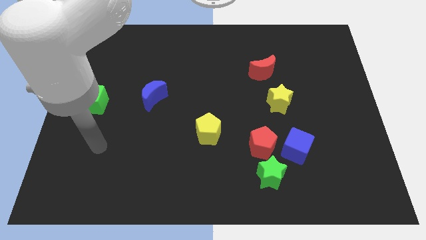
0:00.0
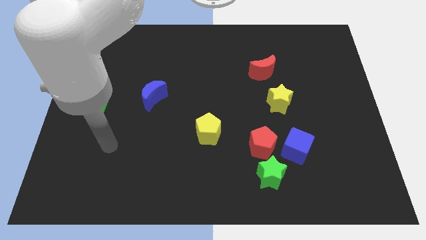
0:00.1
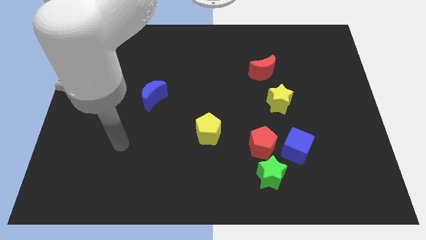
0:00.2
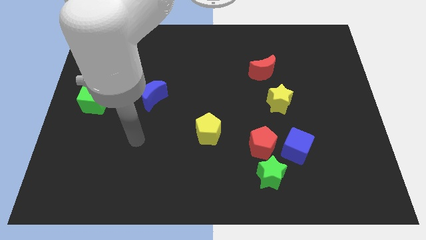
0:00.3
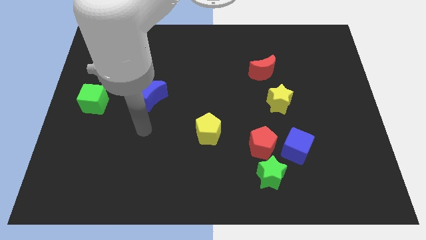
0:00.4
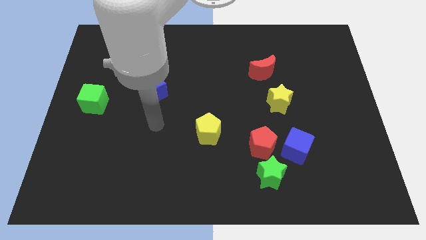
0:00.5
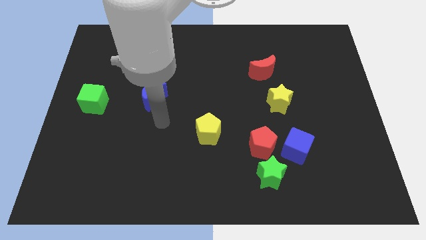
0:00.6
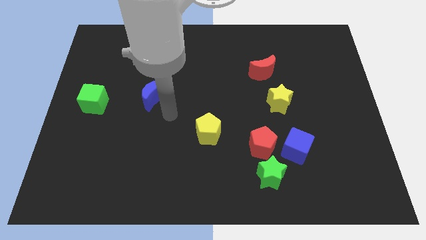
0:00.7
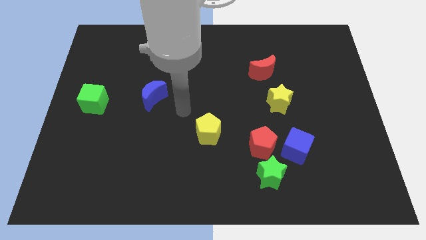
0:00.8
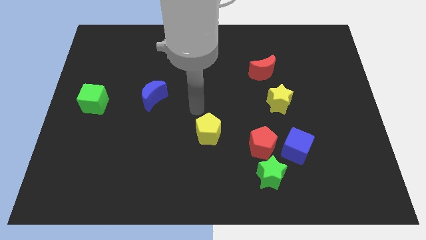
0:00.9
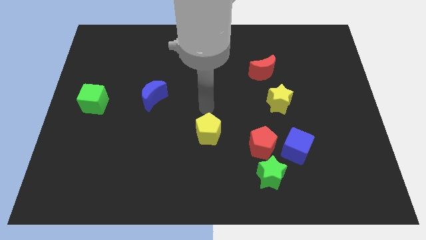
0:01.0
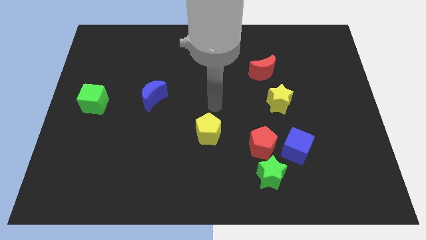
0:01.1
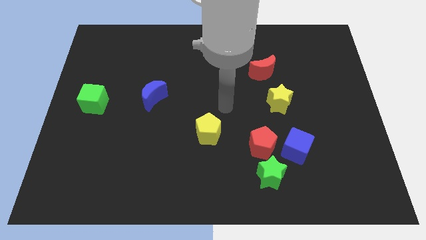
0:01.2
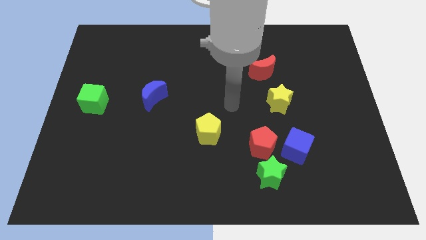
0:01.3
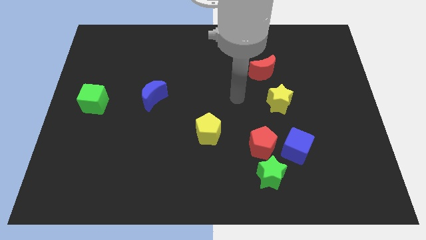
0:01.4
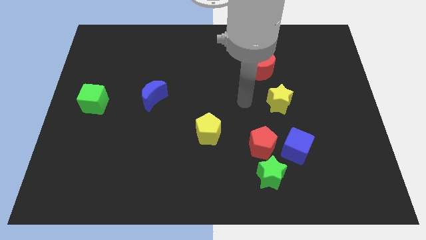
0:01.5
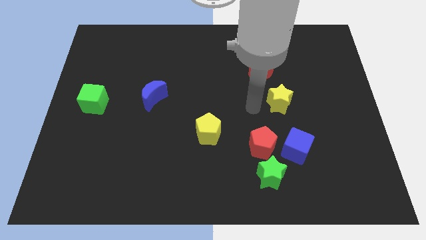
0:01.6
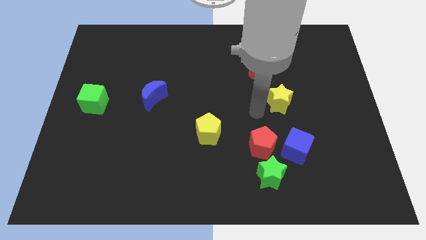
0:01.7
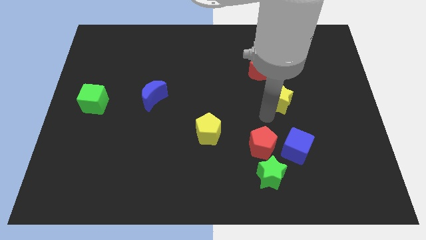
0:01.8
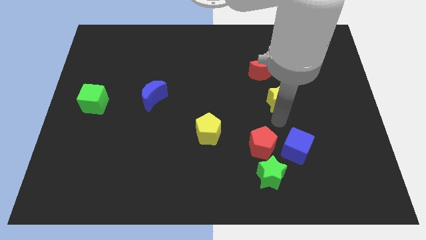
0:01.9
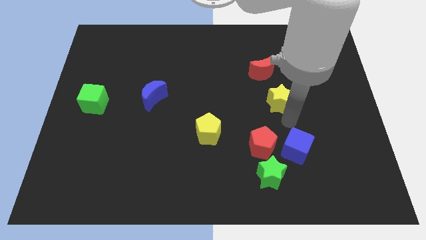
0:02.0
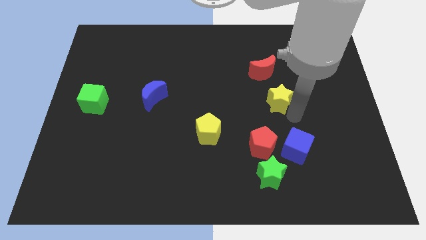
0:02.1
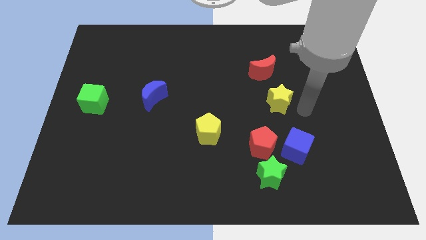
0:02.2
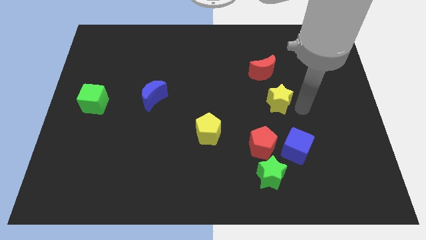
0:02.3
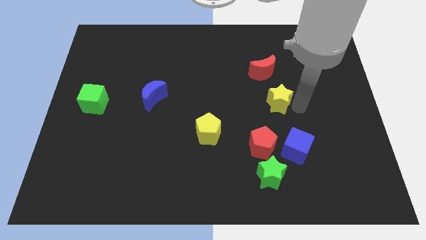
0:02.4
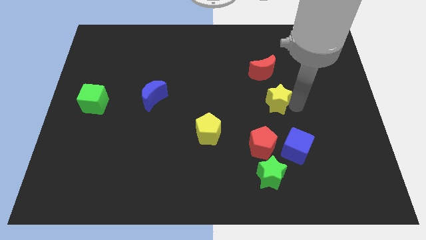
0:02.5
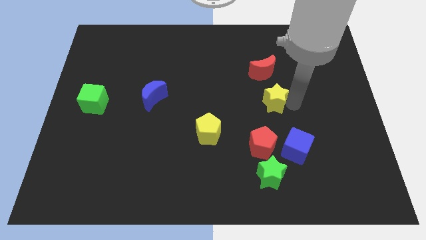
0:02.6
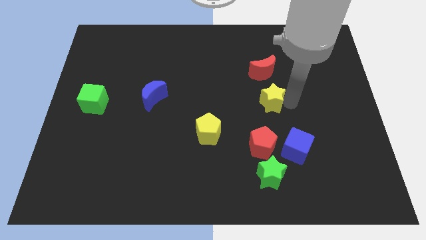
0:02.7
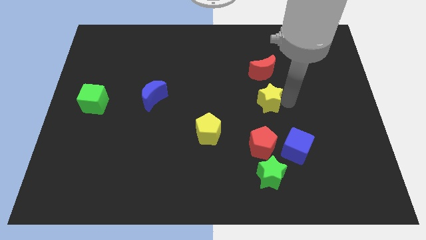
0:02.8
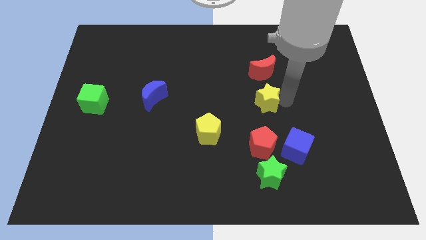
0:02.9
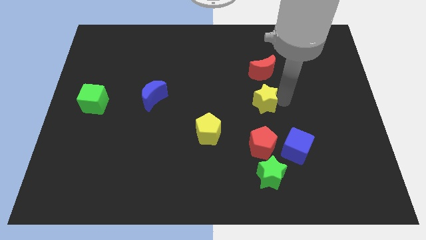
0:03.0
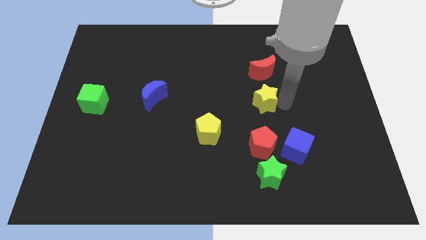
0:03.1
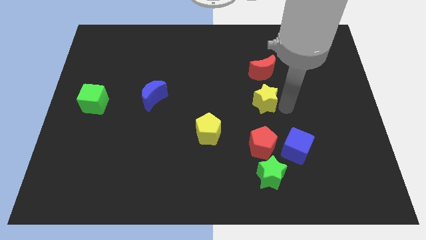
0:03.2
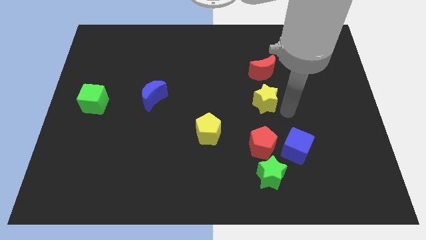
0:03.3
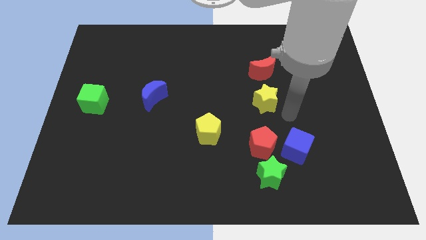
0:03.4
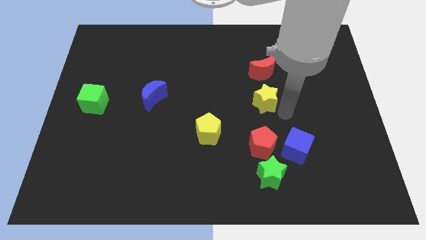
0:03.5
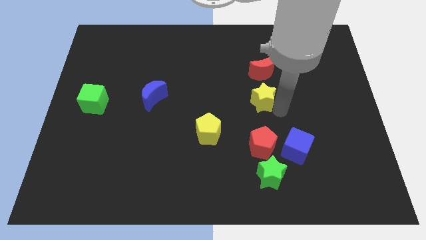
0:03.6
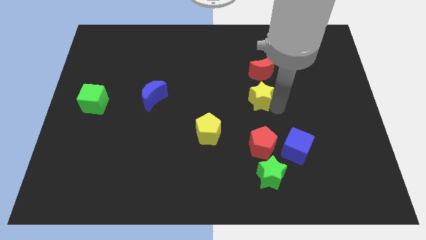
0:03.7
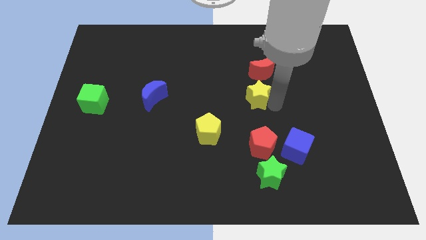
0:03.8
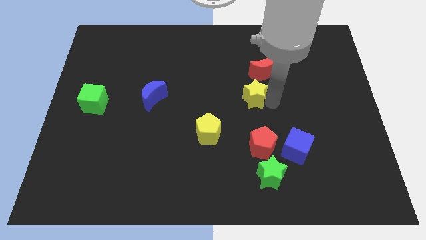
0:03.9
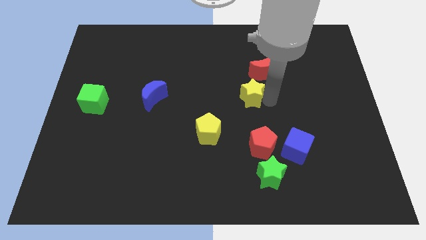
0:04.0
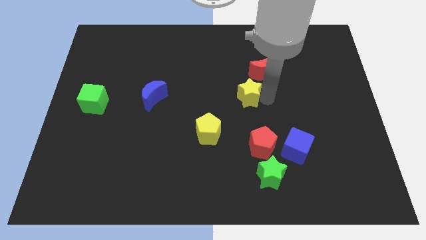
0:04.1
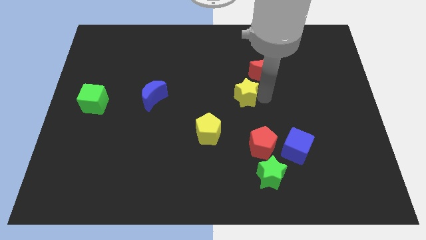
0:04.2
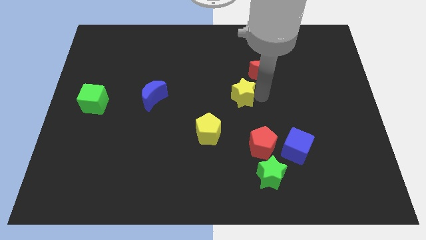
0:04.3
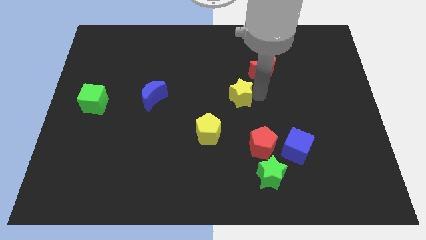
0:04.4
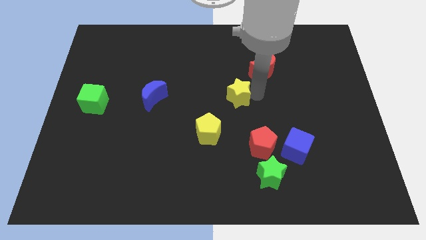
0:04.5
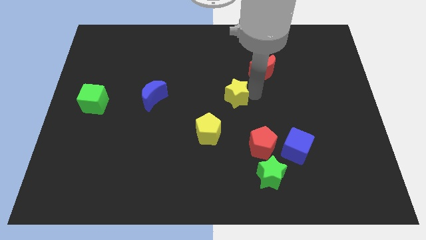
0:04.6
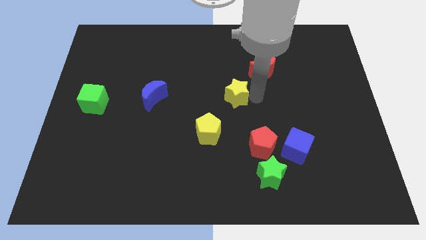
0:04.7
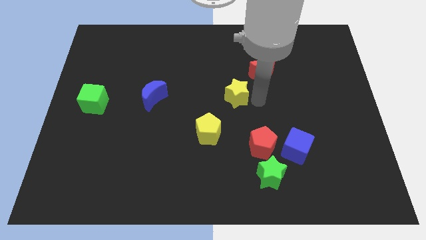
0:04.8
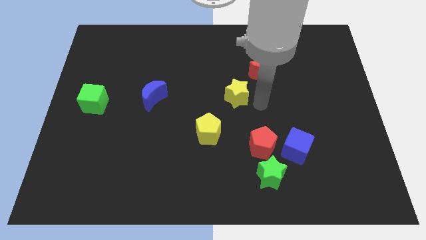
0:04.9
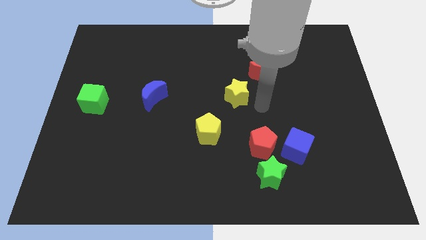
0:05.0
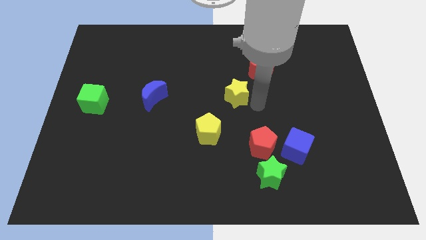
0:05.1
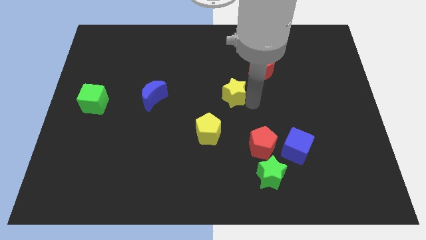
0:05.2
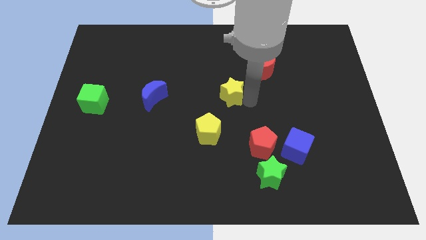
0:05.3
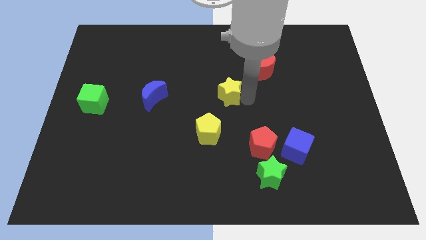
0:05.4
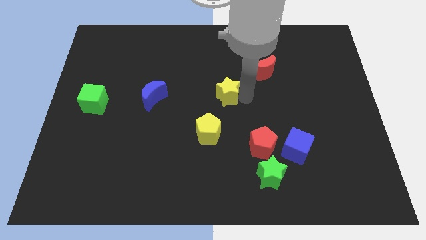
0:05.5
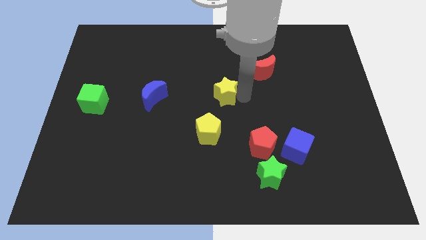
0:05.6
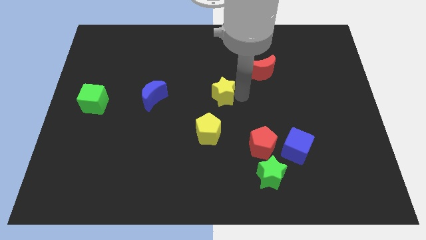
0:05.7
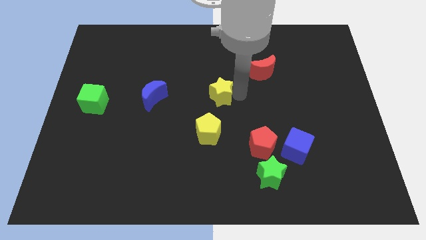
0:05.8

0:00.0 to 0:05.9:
put the yellow star right of the blue moon

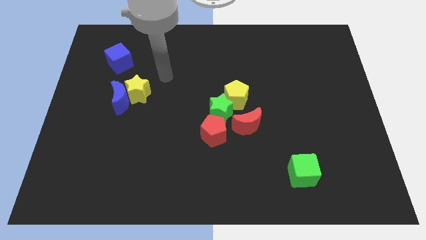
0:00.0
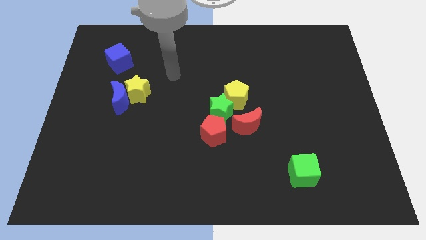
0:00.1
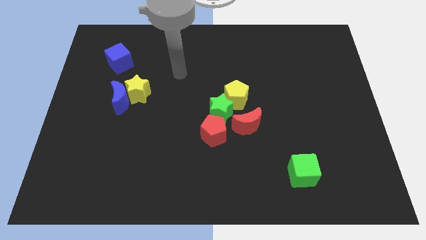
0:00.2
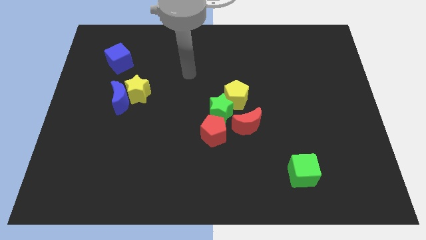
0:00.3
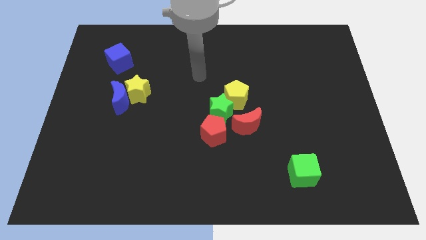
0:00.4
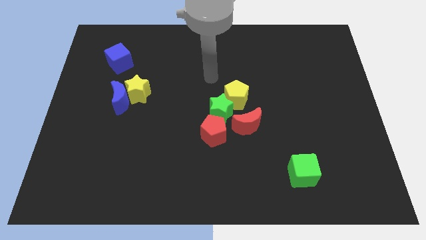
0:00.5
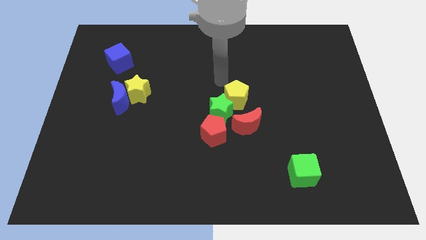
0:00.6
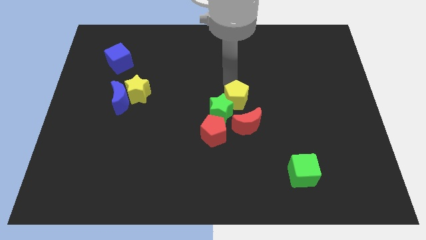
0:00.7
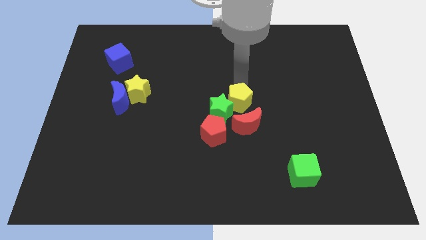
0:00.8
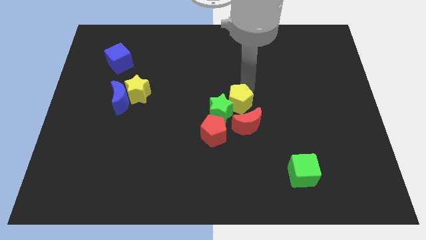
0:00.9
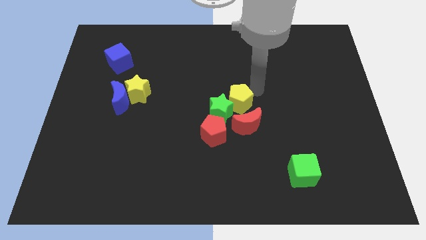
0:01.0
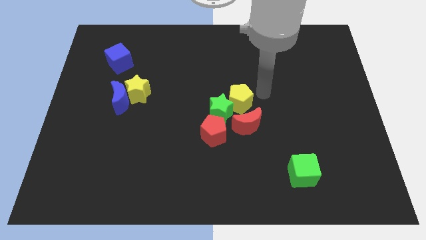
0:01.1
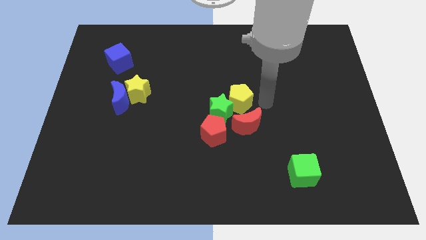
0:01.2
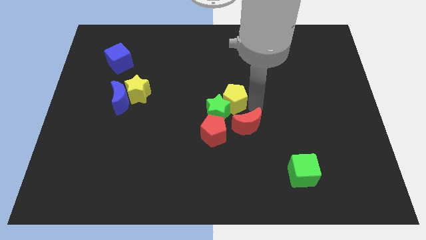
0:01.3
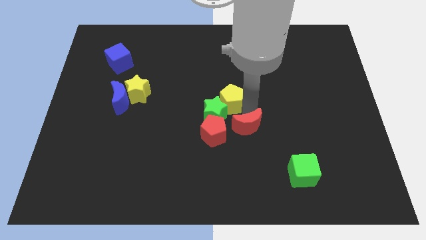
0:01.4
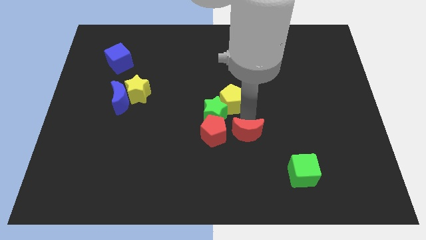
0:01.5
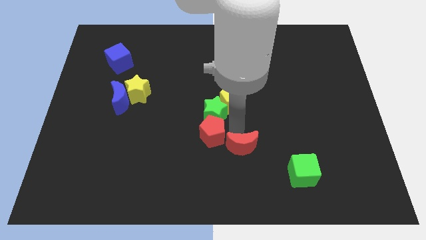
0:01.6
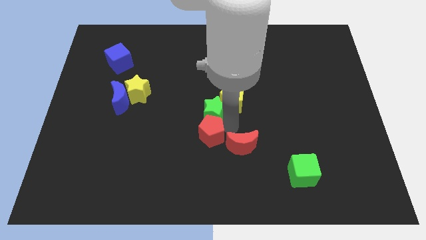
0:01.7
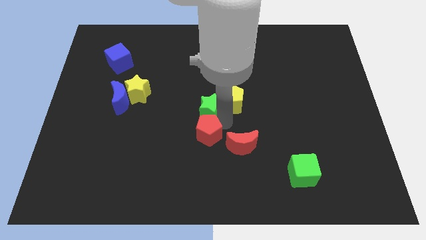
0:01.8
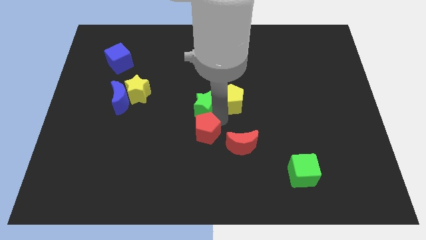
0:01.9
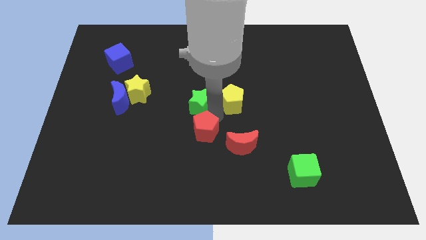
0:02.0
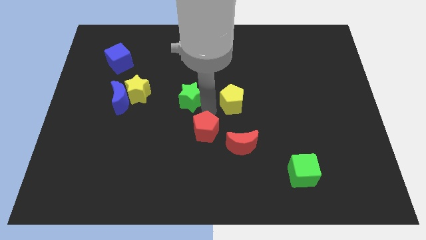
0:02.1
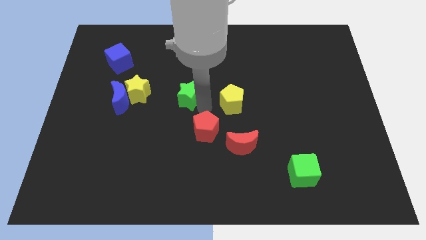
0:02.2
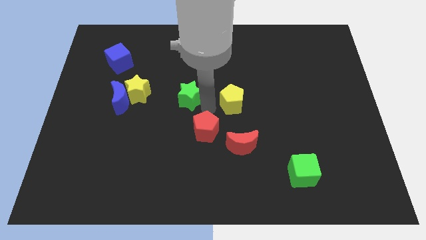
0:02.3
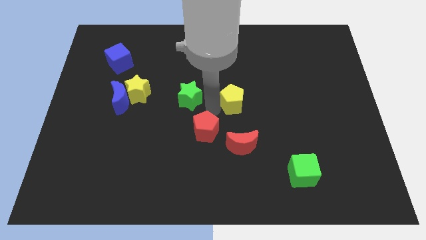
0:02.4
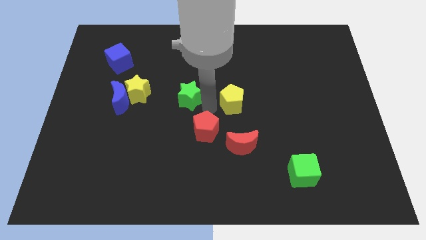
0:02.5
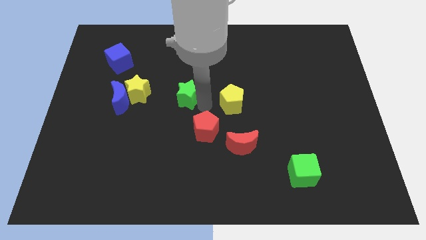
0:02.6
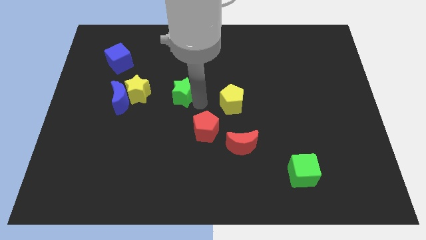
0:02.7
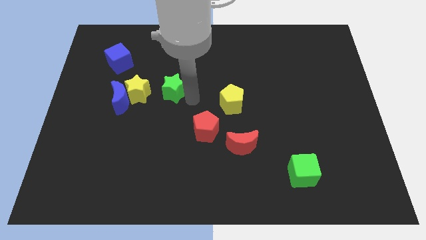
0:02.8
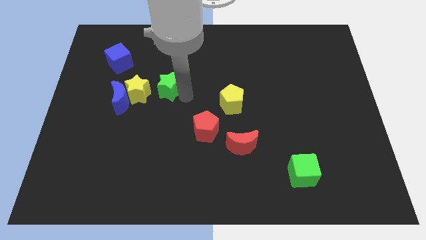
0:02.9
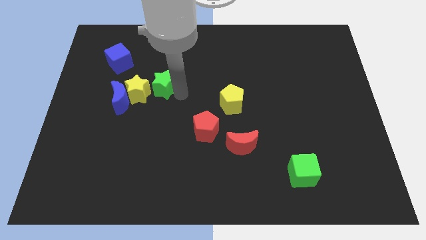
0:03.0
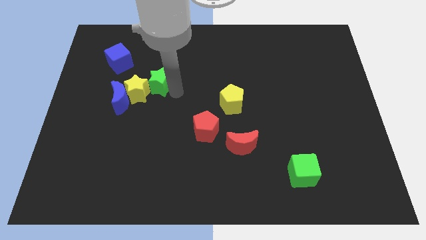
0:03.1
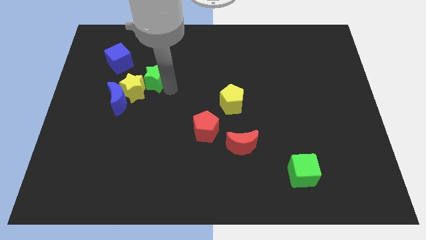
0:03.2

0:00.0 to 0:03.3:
put the green star to the bottom right side of the blue cube
